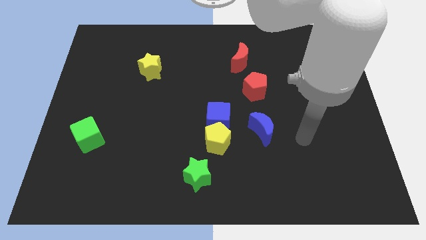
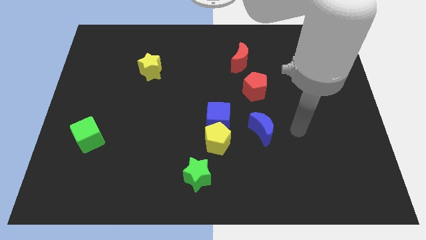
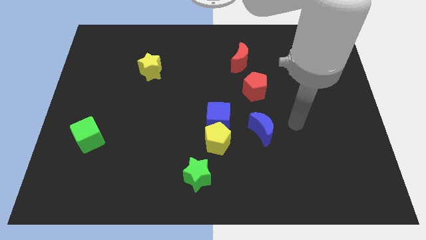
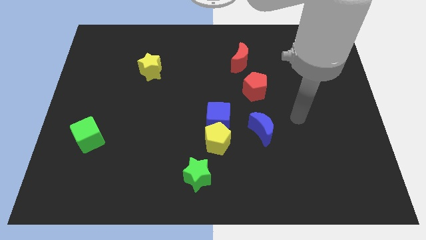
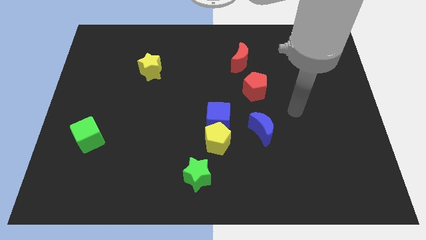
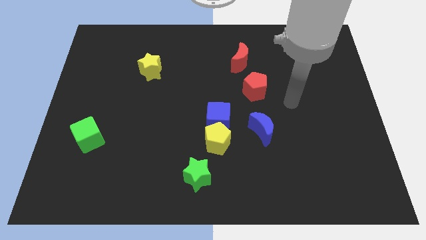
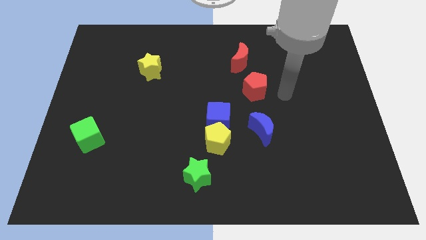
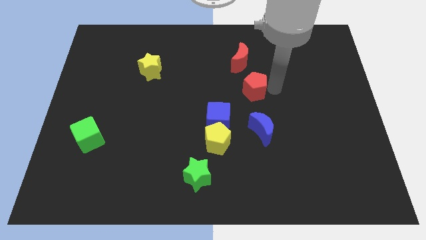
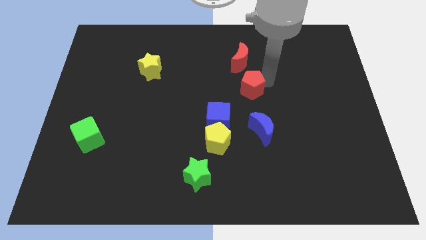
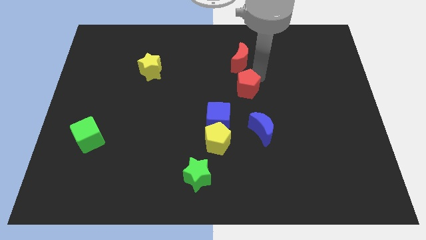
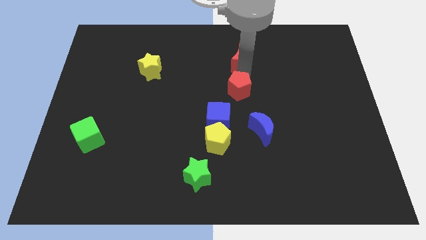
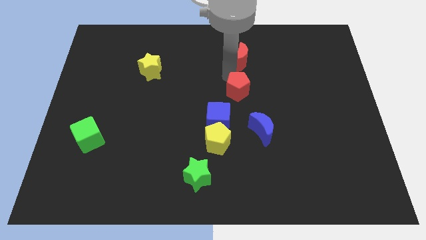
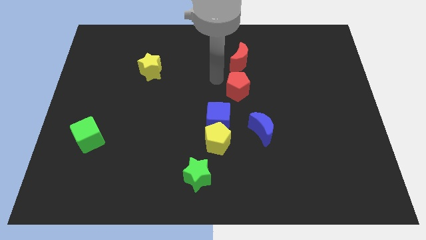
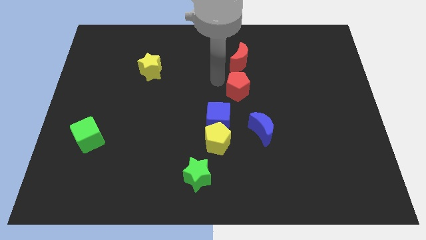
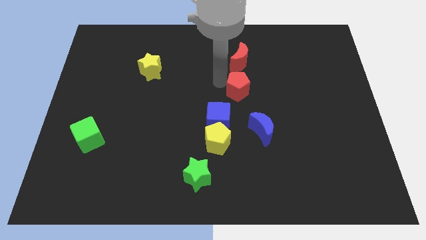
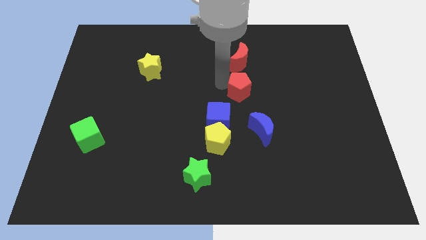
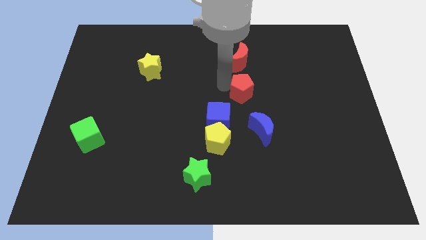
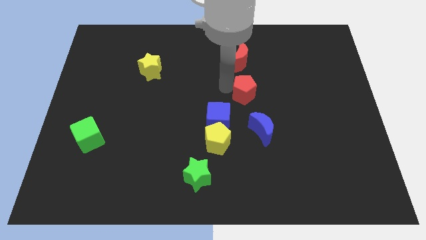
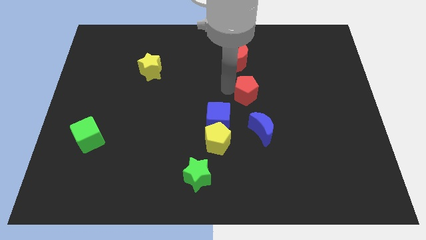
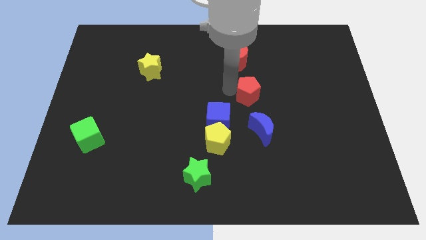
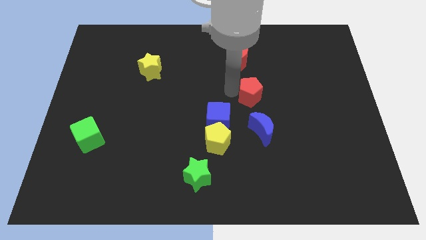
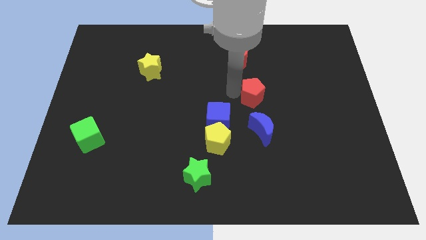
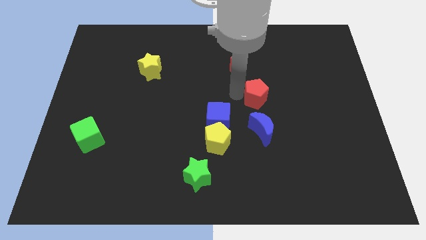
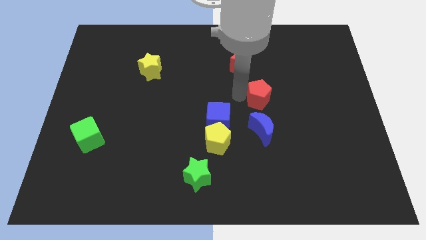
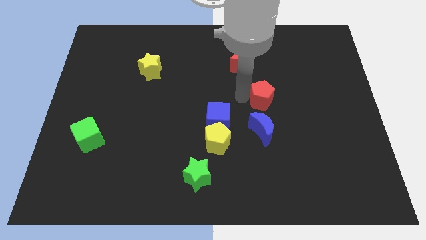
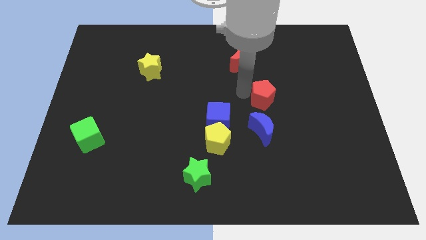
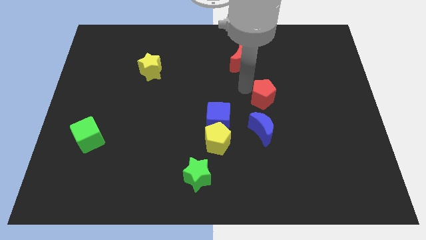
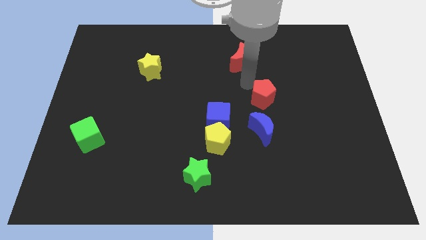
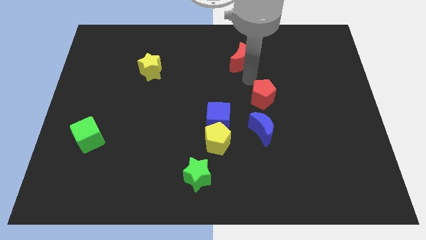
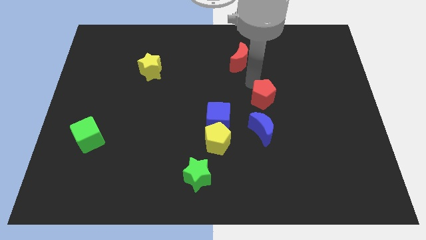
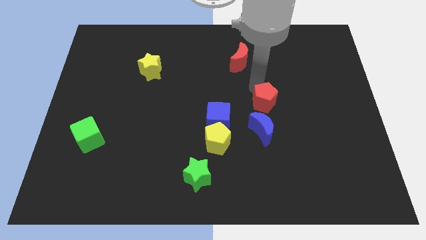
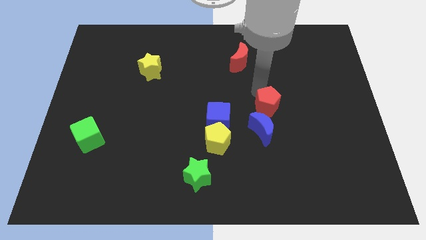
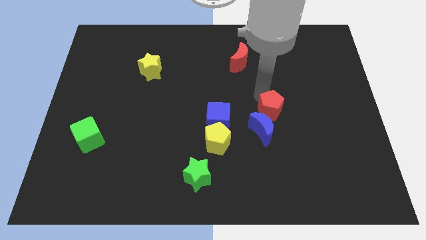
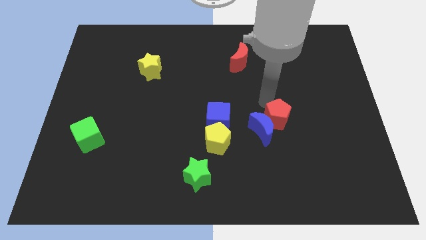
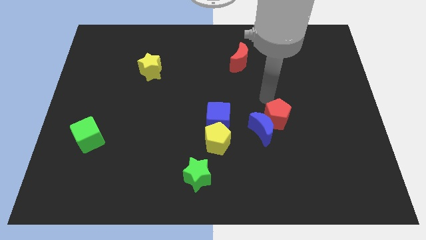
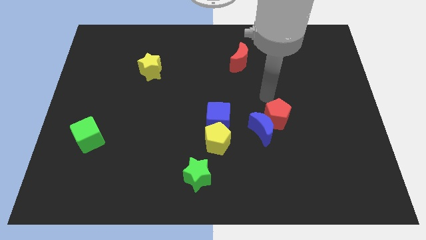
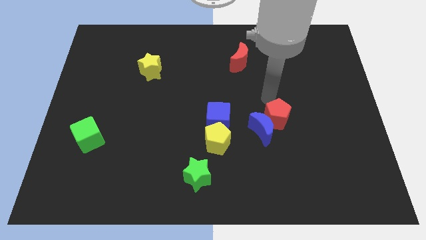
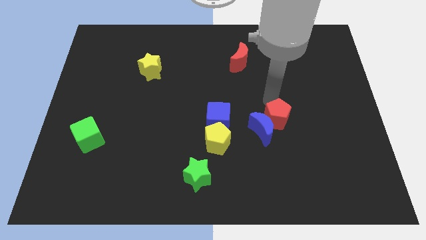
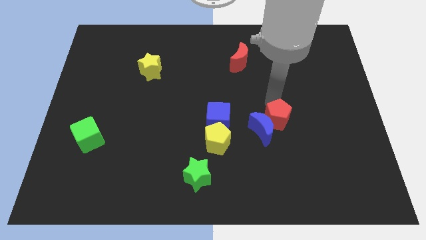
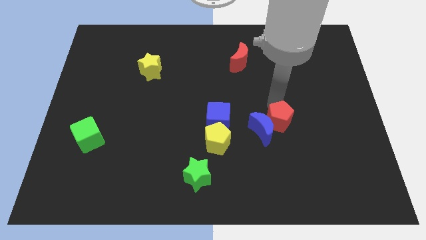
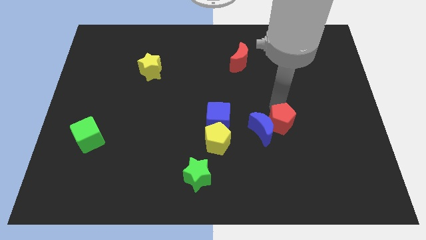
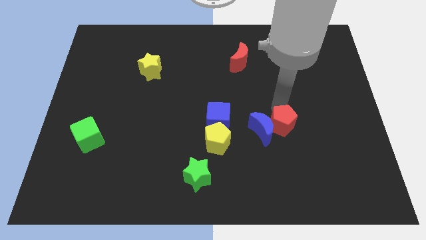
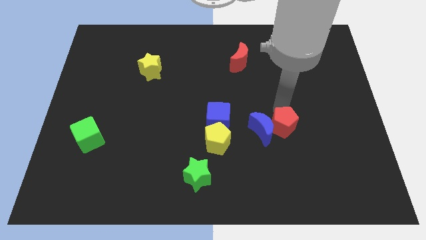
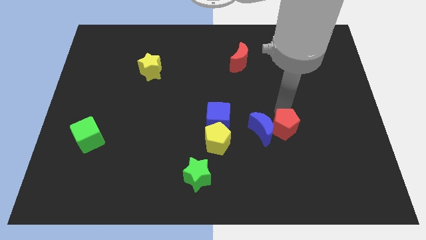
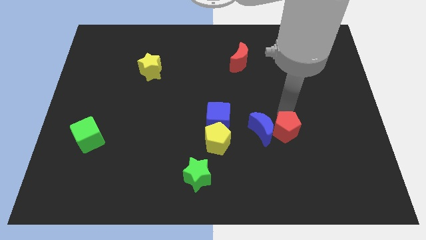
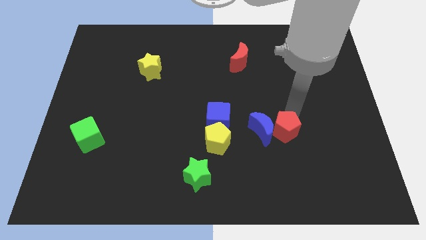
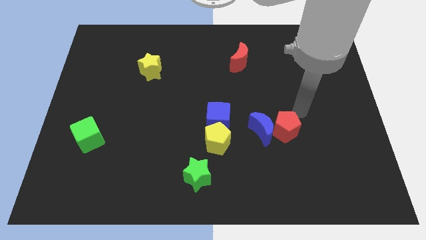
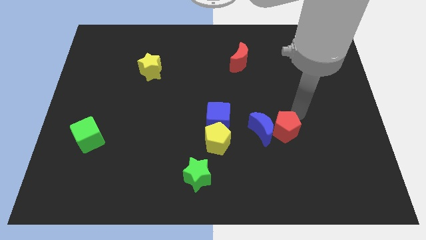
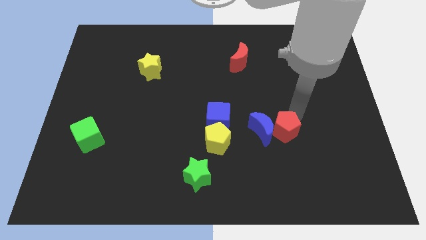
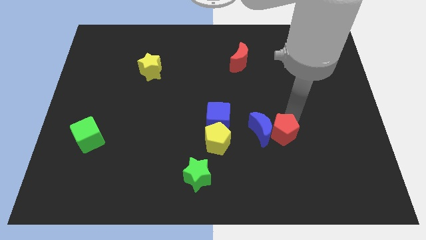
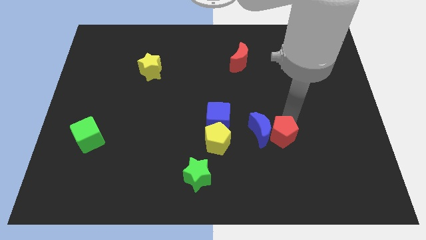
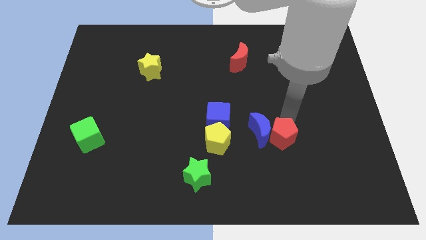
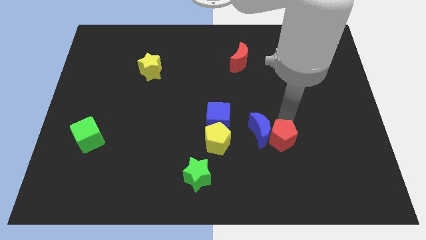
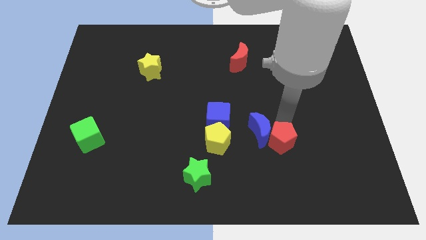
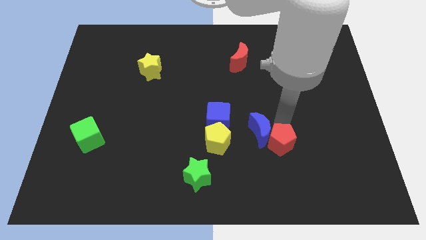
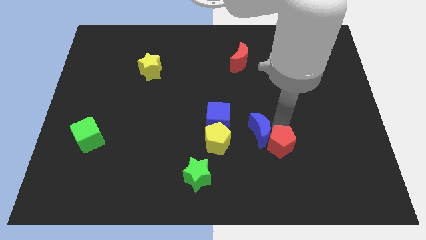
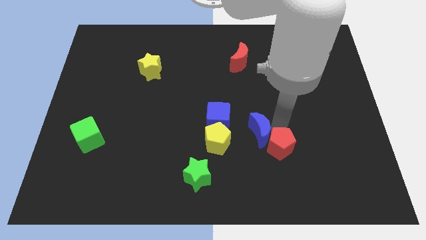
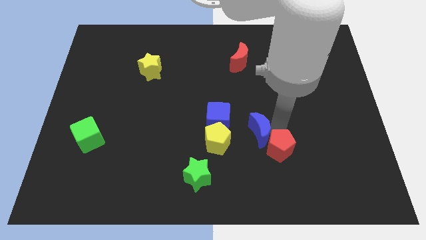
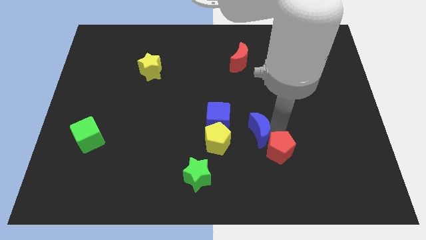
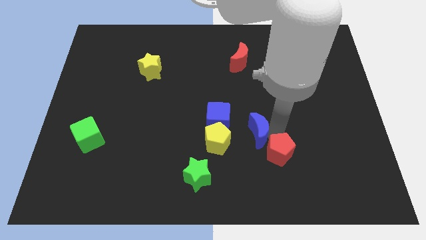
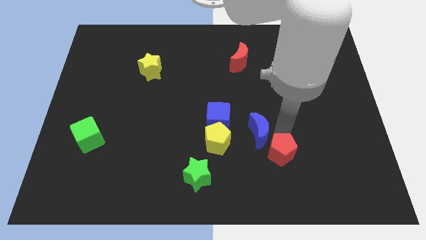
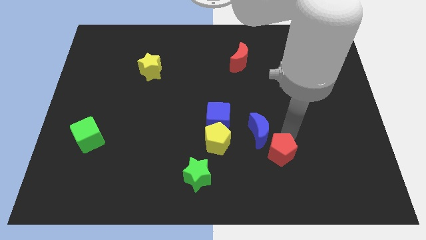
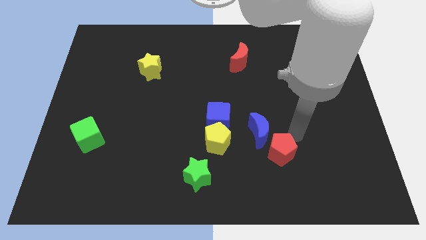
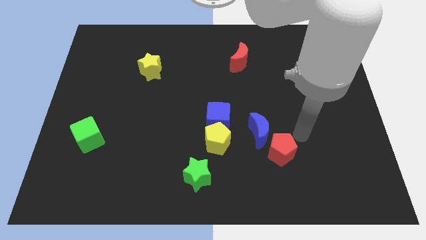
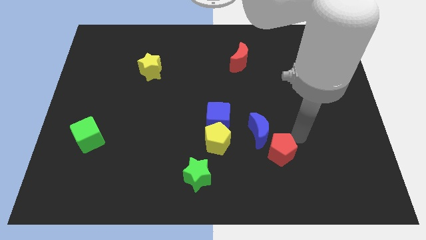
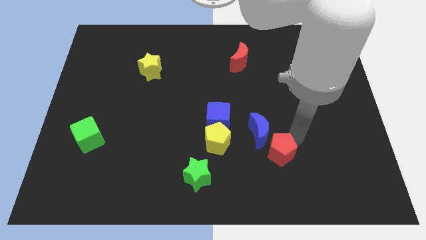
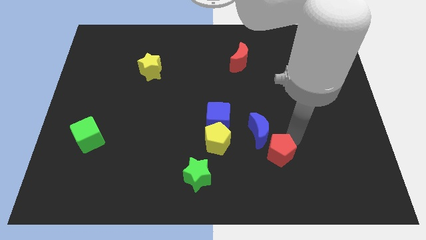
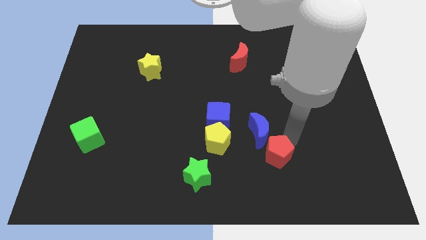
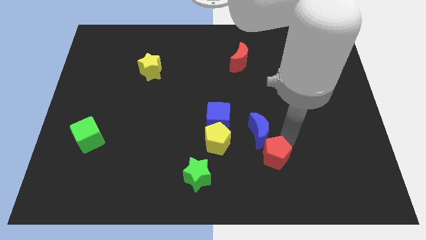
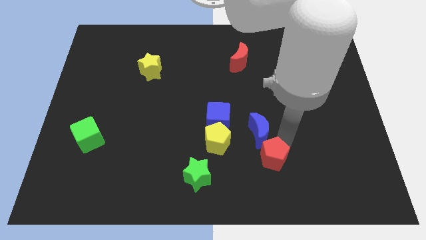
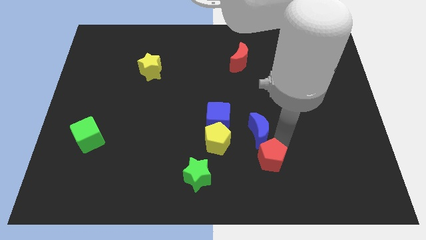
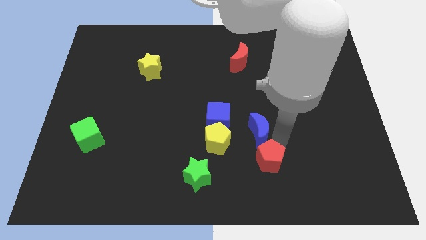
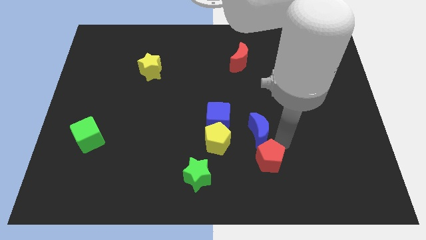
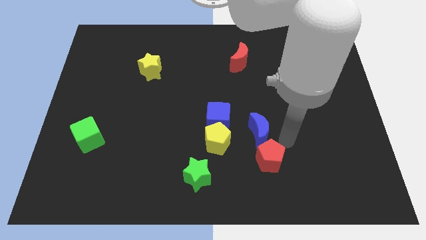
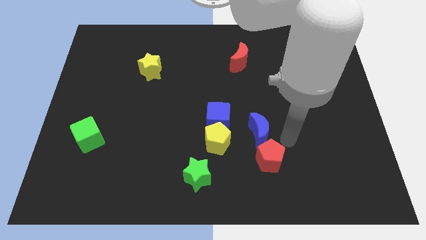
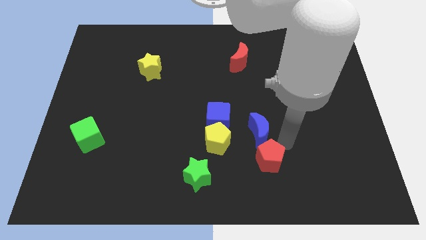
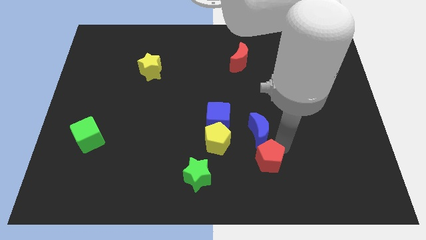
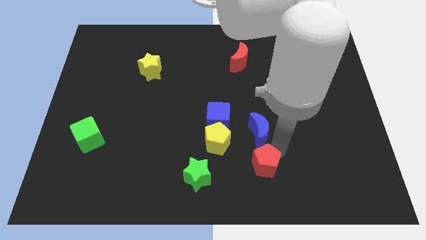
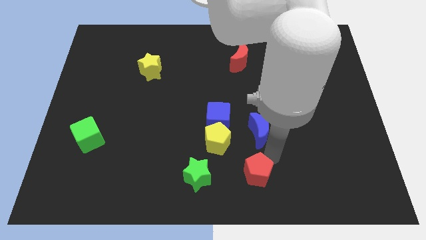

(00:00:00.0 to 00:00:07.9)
put the red pentagon to the bottom side
